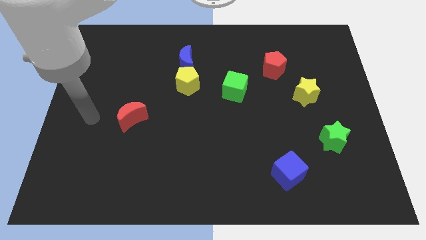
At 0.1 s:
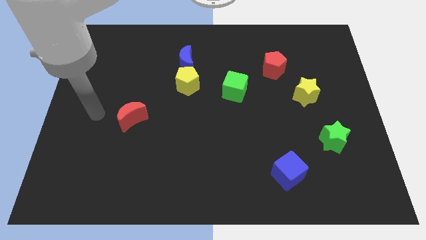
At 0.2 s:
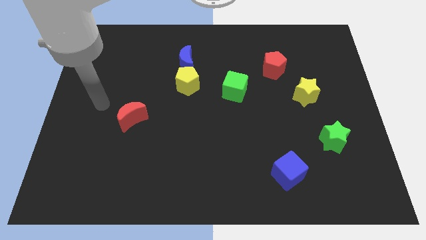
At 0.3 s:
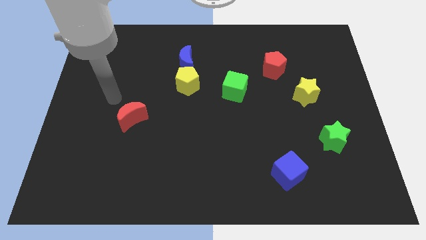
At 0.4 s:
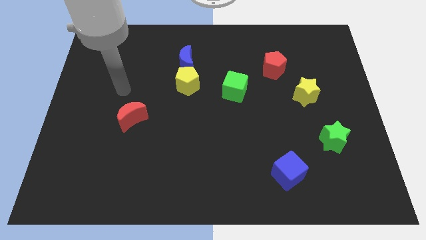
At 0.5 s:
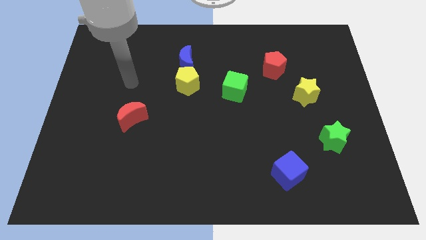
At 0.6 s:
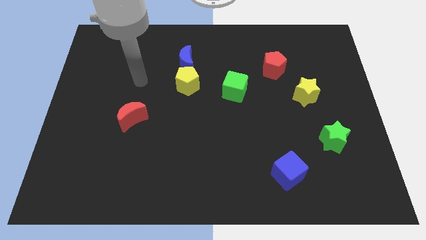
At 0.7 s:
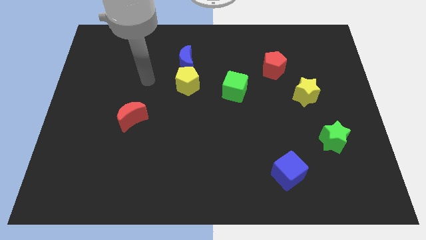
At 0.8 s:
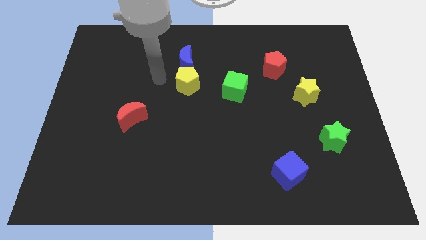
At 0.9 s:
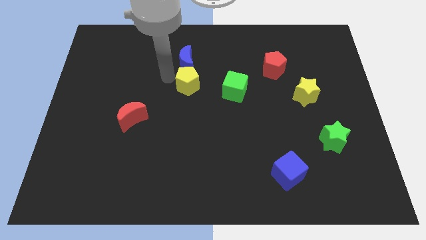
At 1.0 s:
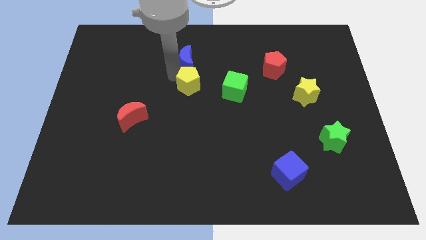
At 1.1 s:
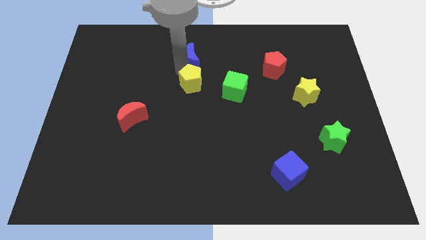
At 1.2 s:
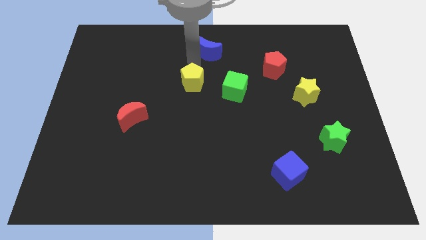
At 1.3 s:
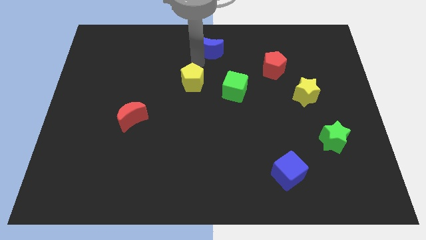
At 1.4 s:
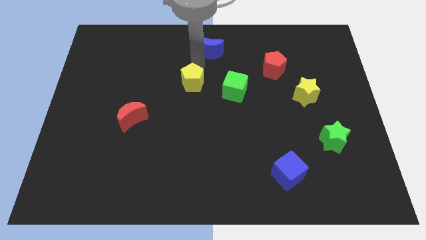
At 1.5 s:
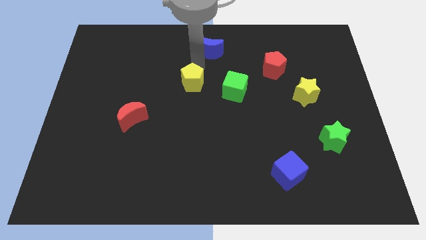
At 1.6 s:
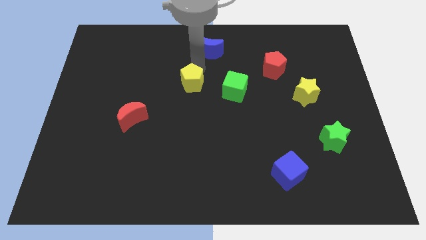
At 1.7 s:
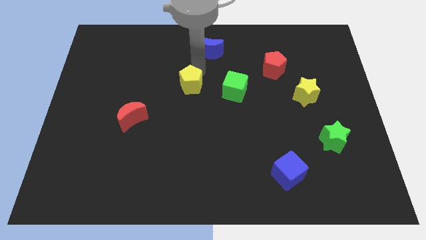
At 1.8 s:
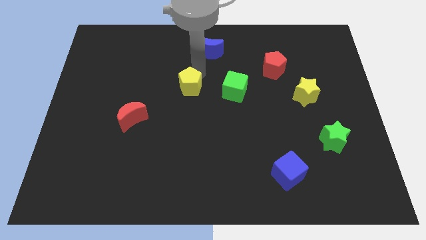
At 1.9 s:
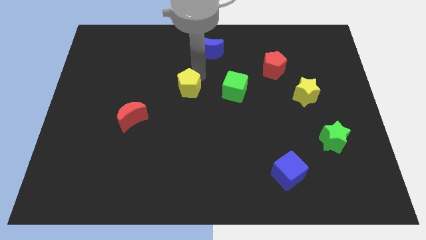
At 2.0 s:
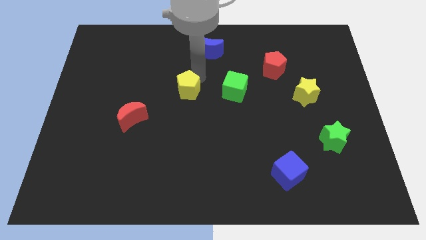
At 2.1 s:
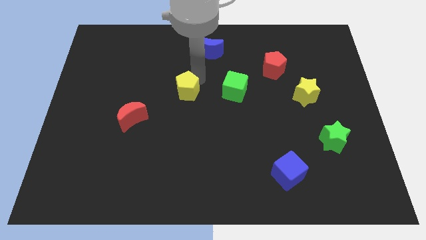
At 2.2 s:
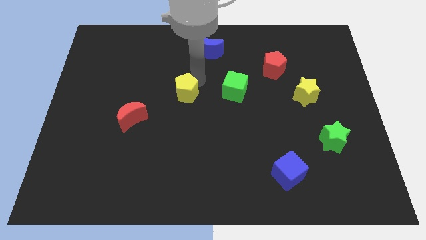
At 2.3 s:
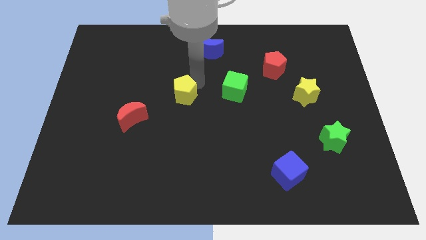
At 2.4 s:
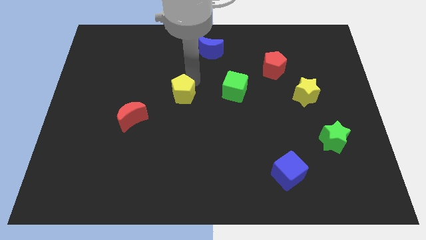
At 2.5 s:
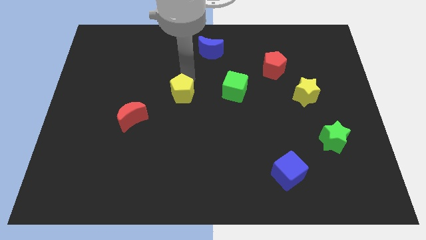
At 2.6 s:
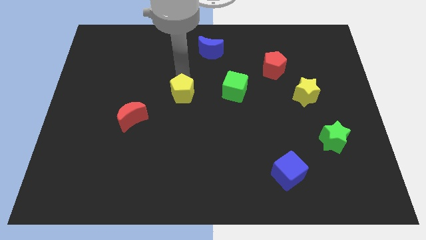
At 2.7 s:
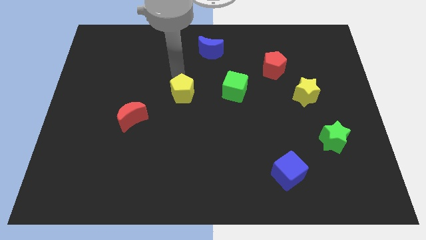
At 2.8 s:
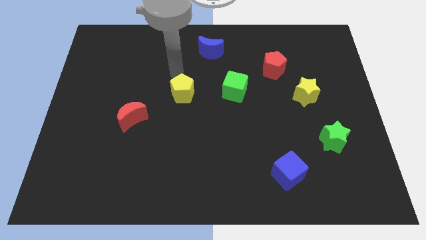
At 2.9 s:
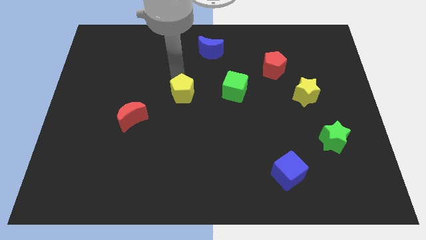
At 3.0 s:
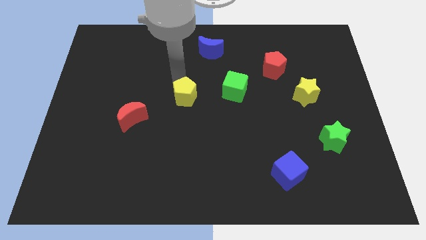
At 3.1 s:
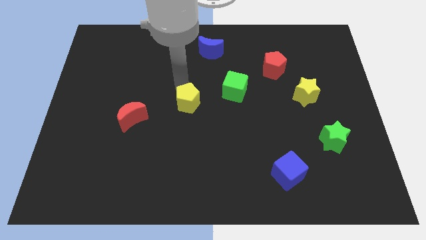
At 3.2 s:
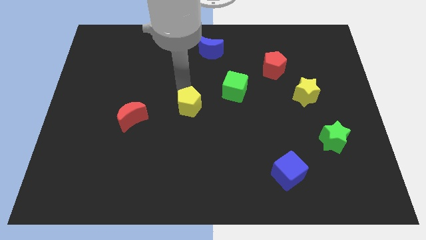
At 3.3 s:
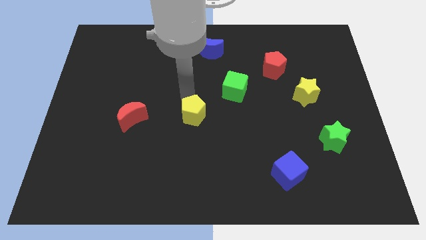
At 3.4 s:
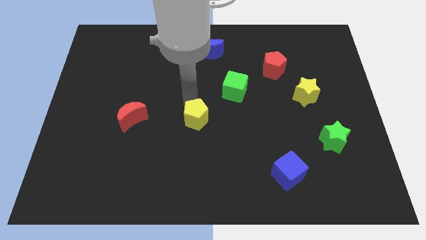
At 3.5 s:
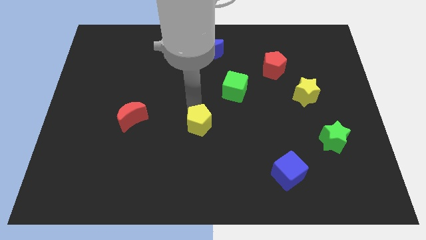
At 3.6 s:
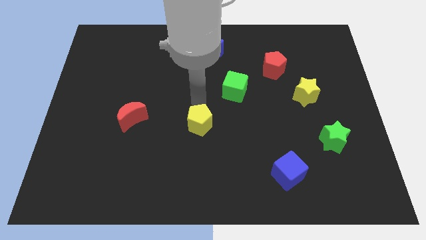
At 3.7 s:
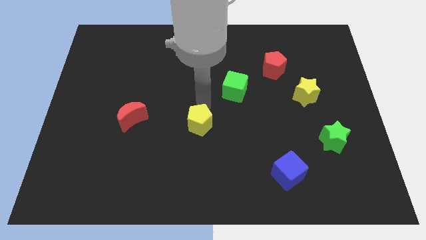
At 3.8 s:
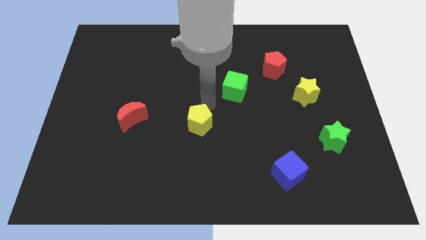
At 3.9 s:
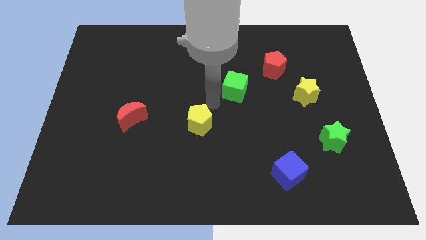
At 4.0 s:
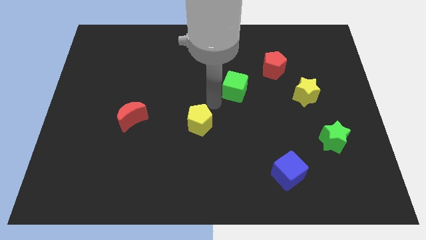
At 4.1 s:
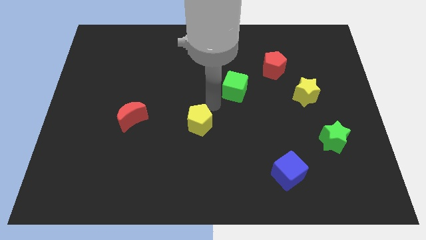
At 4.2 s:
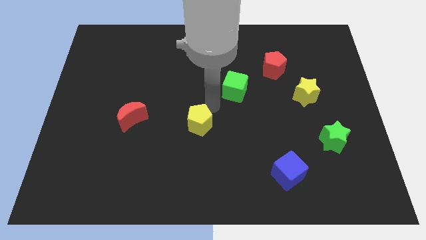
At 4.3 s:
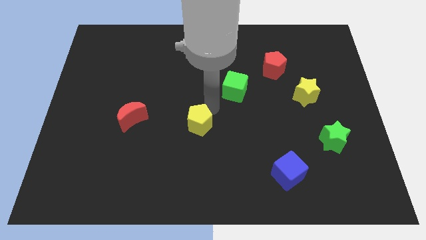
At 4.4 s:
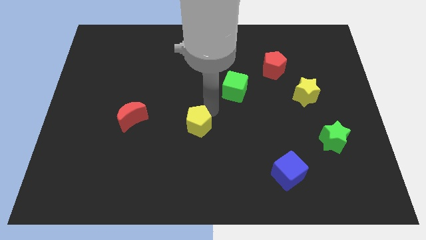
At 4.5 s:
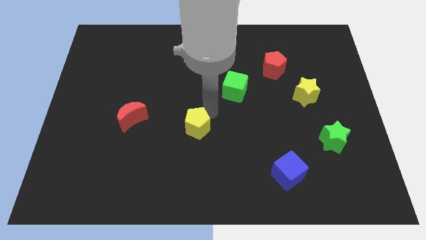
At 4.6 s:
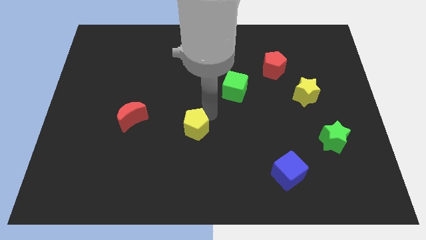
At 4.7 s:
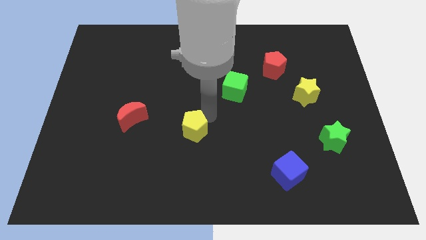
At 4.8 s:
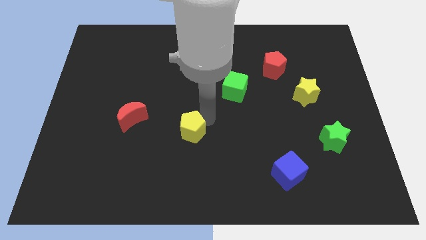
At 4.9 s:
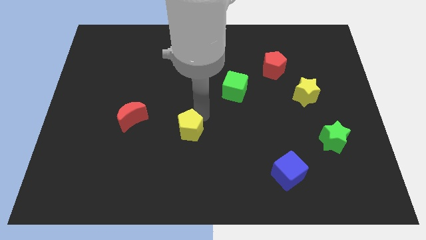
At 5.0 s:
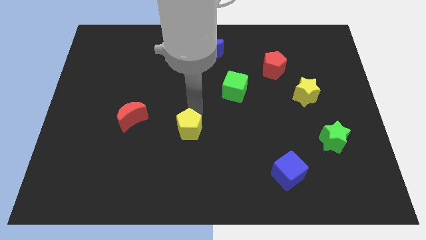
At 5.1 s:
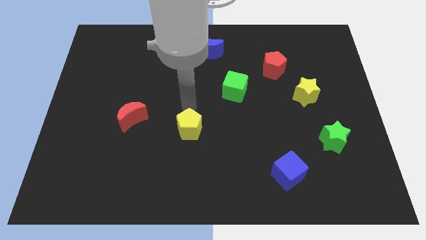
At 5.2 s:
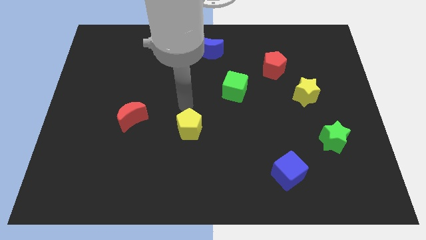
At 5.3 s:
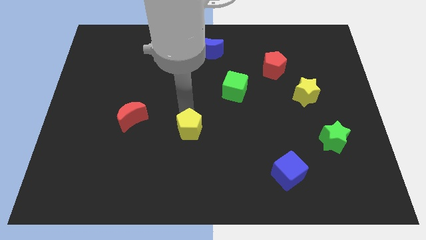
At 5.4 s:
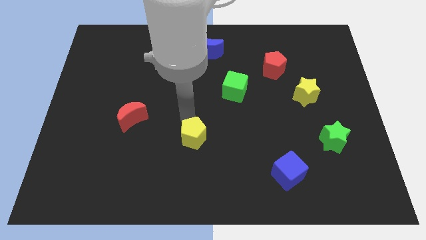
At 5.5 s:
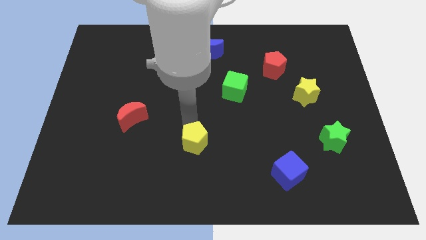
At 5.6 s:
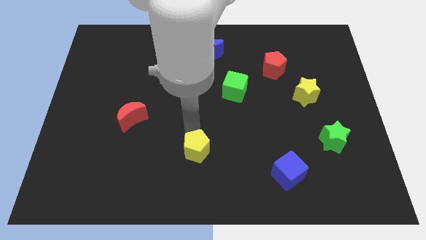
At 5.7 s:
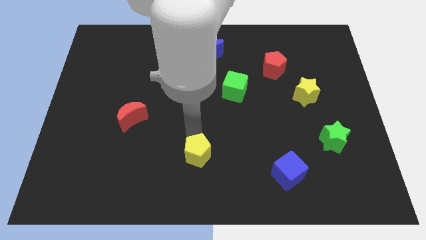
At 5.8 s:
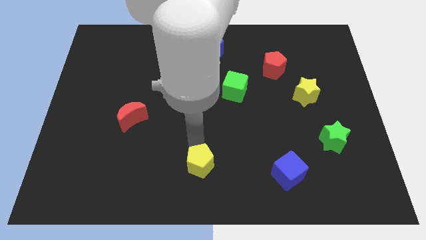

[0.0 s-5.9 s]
slide the yellow pentagon to the bottom
